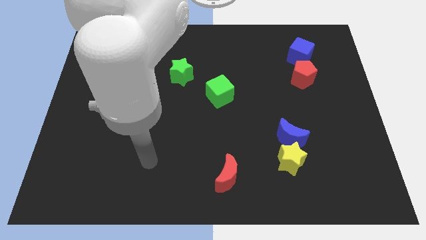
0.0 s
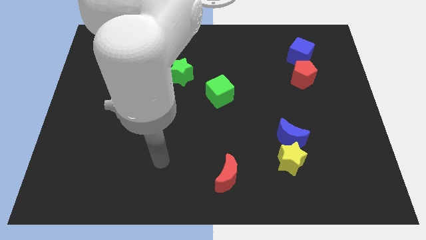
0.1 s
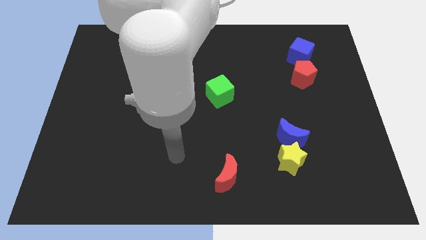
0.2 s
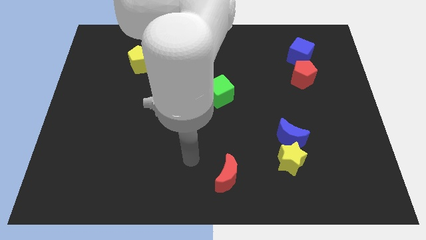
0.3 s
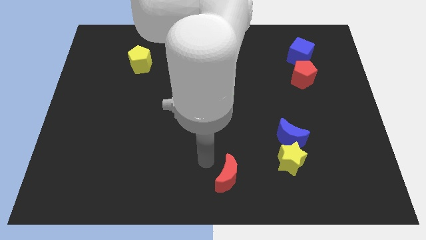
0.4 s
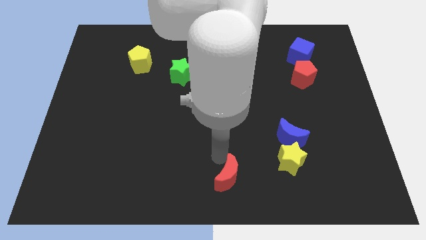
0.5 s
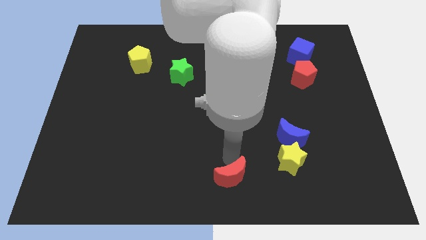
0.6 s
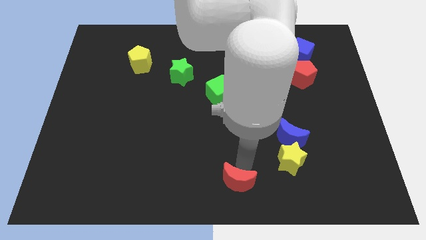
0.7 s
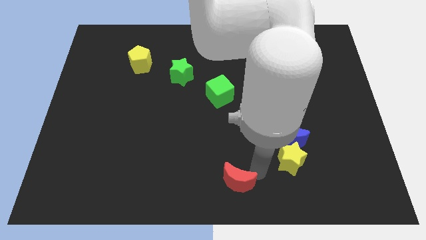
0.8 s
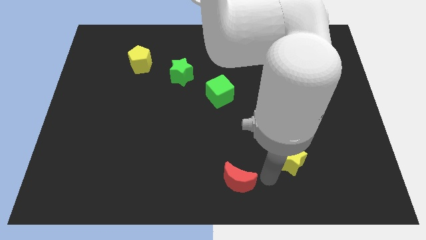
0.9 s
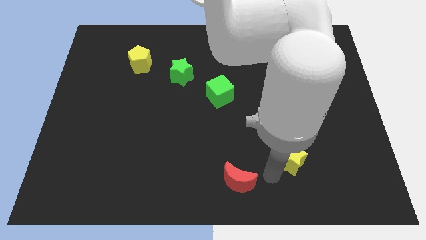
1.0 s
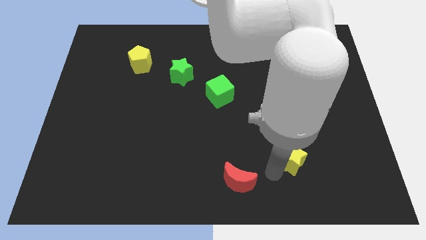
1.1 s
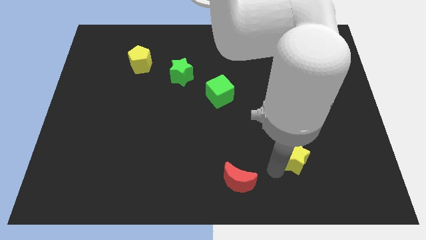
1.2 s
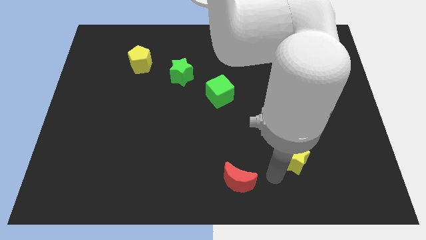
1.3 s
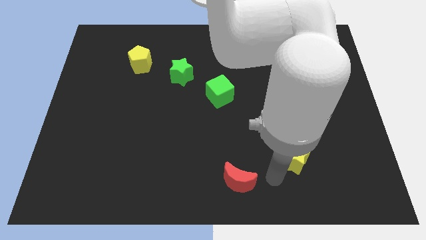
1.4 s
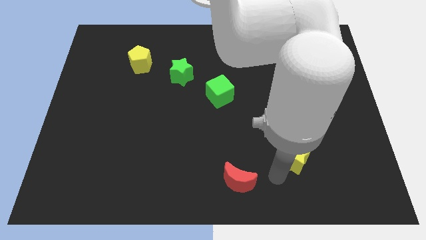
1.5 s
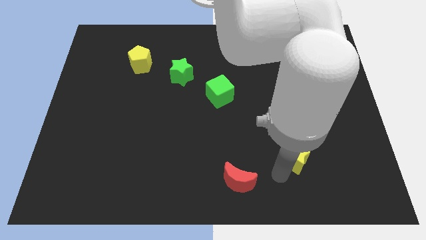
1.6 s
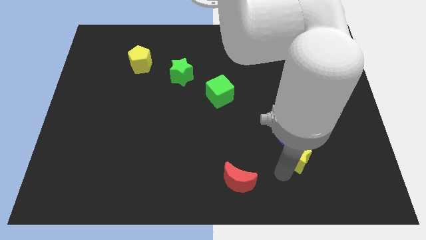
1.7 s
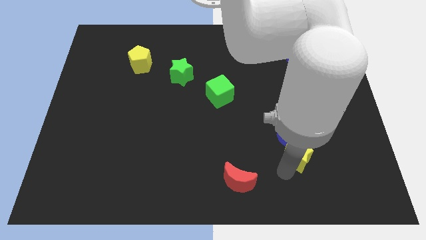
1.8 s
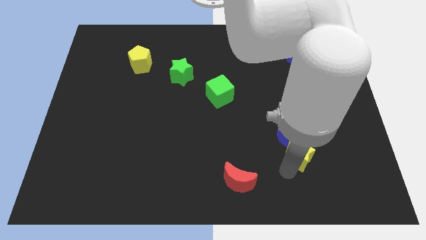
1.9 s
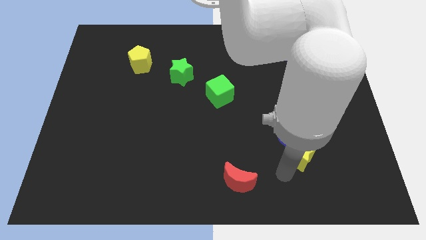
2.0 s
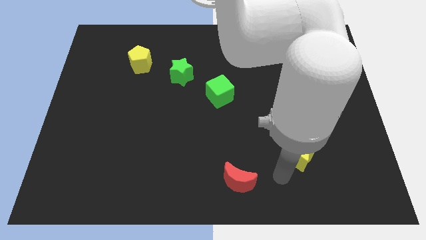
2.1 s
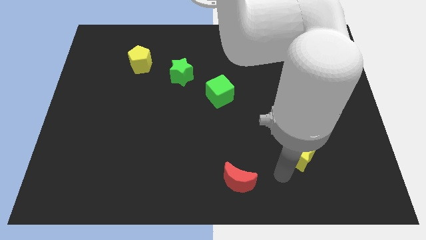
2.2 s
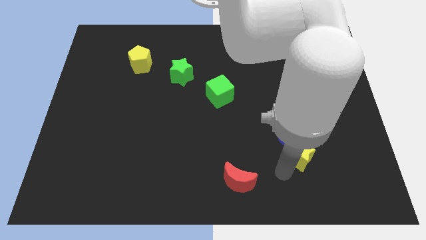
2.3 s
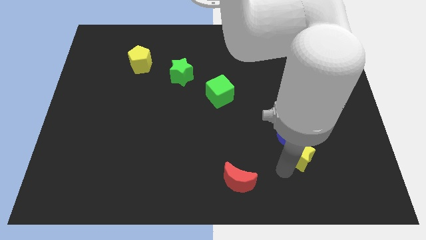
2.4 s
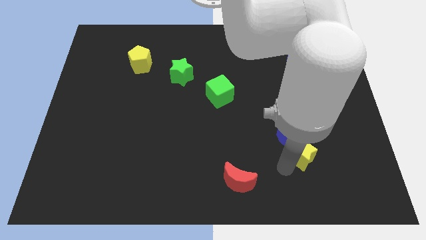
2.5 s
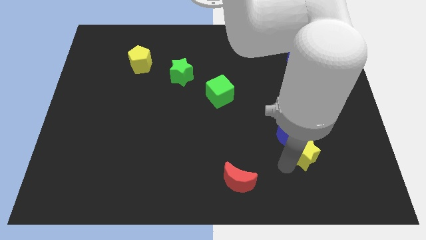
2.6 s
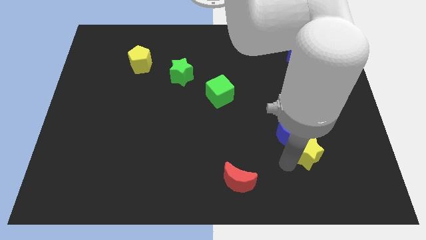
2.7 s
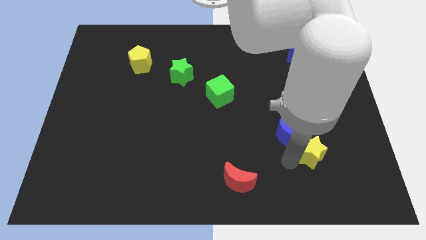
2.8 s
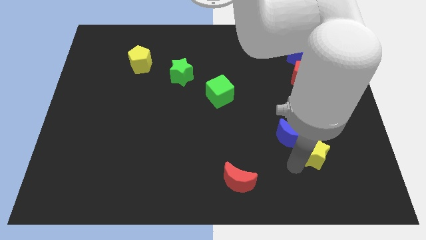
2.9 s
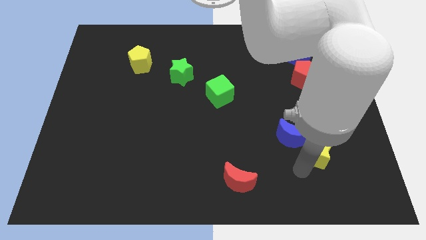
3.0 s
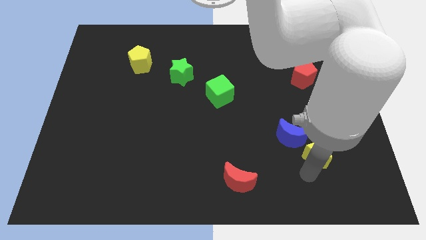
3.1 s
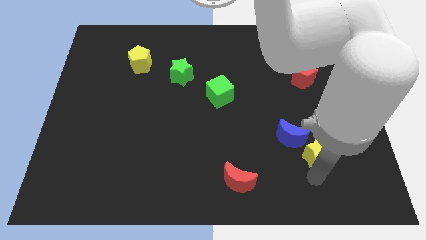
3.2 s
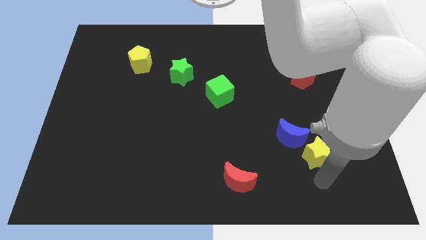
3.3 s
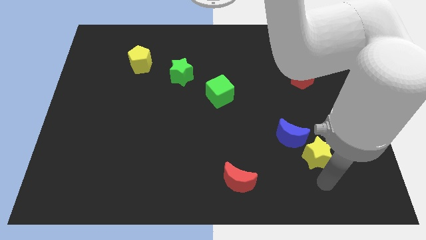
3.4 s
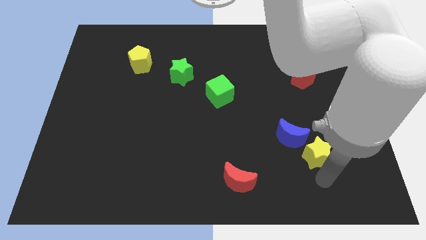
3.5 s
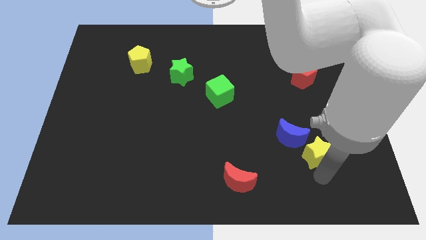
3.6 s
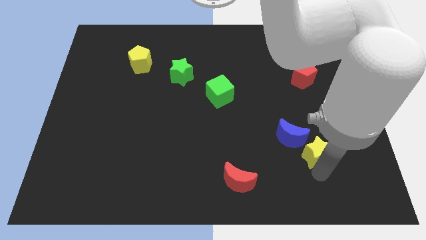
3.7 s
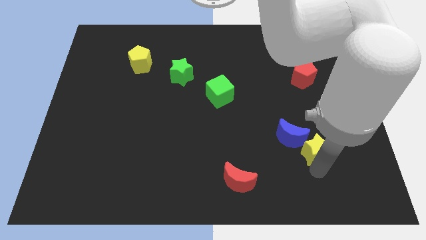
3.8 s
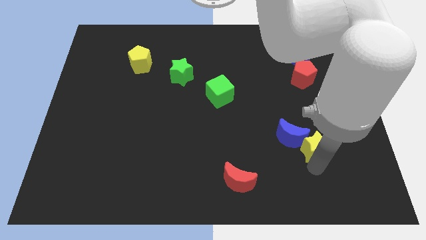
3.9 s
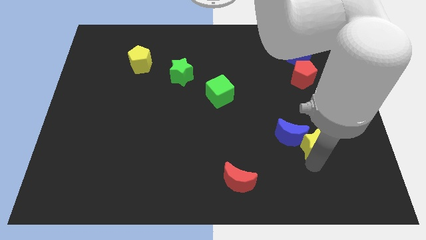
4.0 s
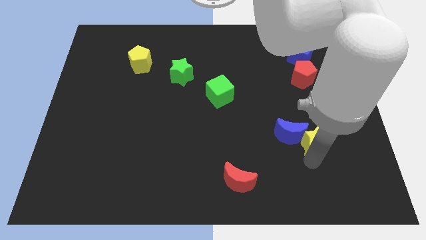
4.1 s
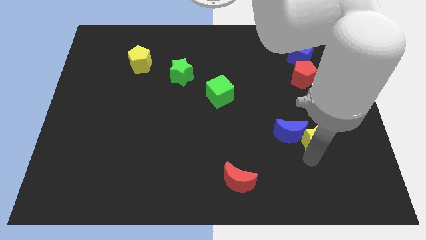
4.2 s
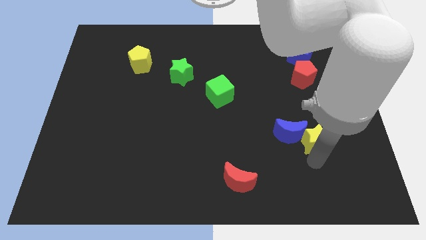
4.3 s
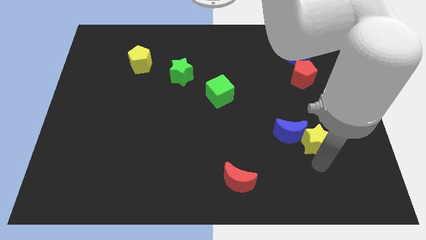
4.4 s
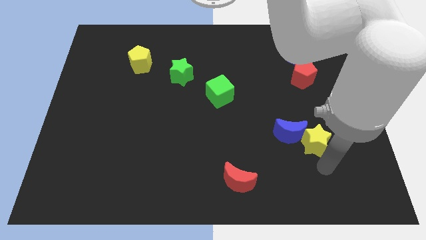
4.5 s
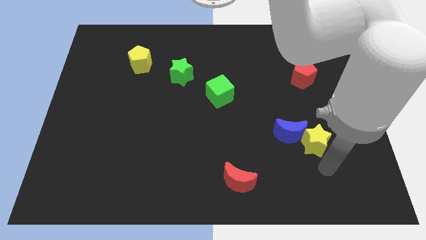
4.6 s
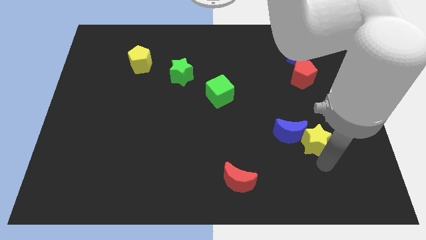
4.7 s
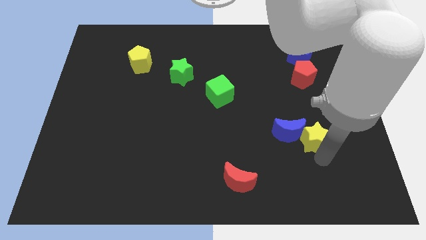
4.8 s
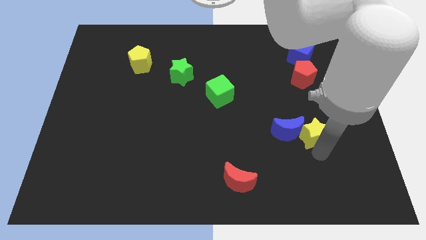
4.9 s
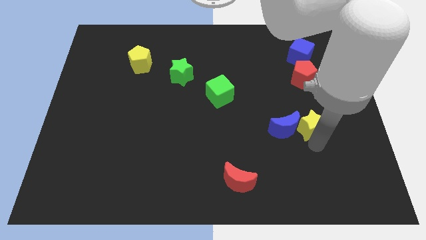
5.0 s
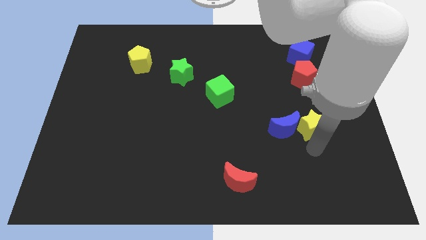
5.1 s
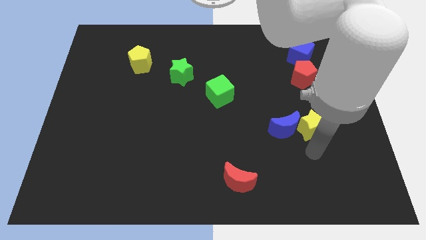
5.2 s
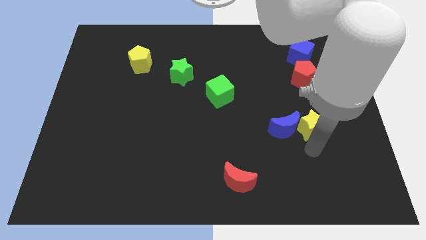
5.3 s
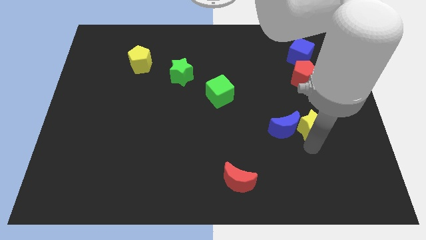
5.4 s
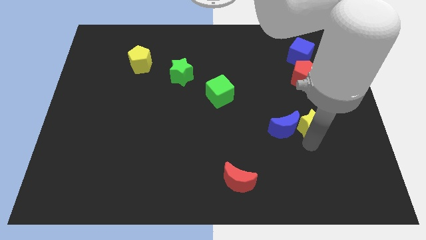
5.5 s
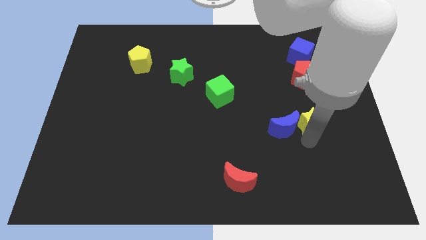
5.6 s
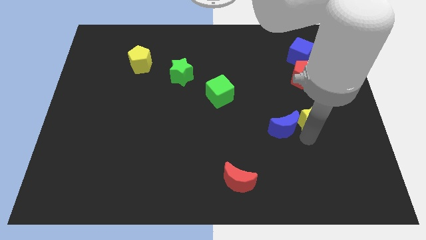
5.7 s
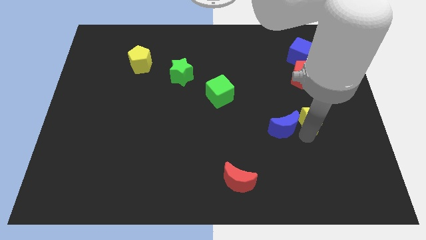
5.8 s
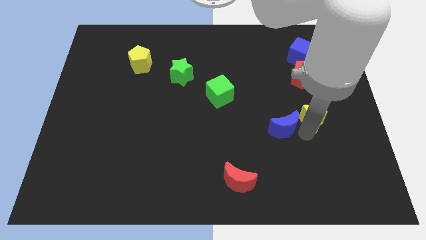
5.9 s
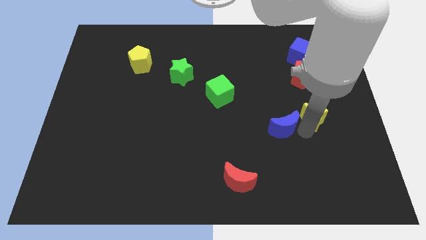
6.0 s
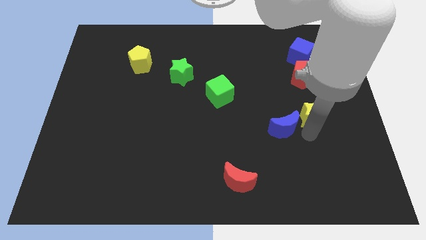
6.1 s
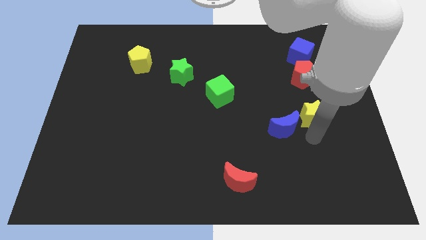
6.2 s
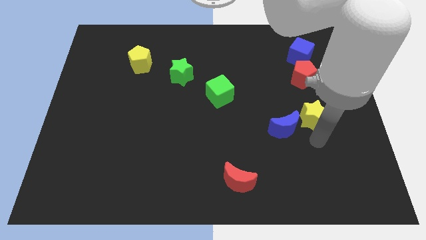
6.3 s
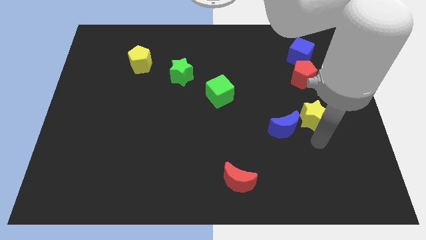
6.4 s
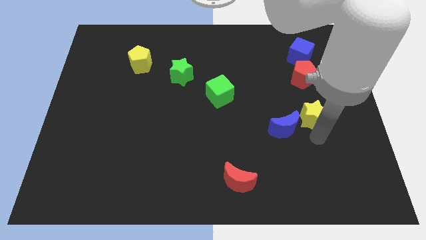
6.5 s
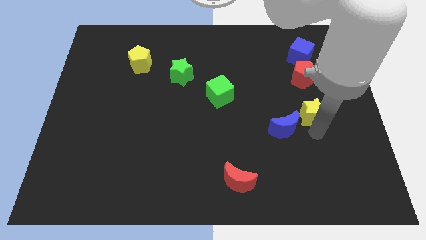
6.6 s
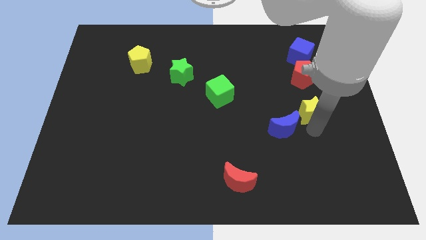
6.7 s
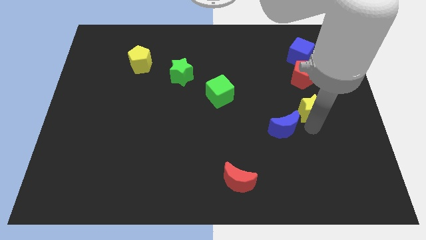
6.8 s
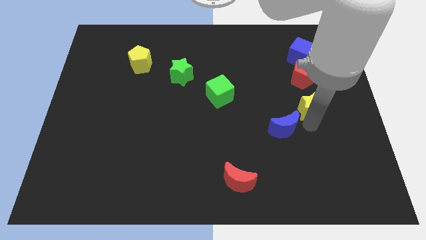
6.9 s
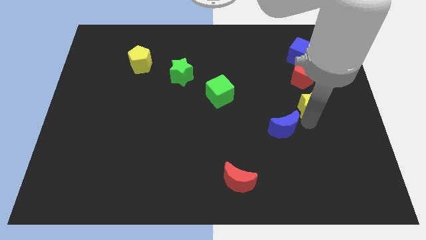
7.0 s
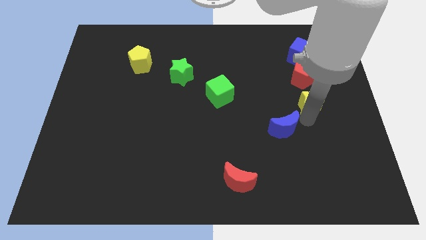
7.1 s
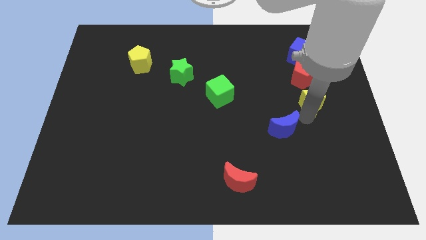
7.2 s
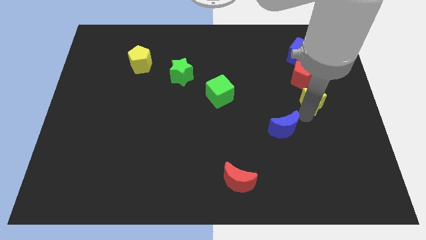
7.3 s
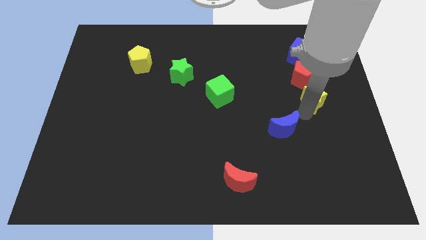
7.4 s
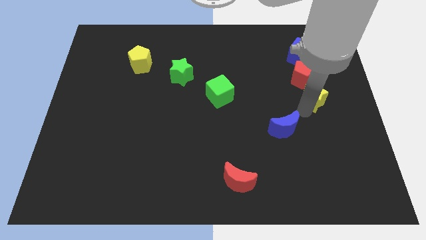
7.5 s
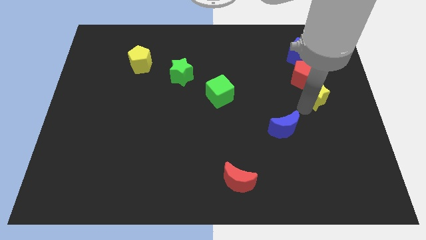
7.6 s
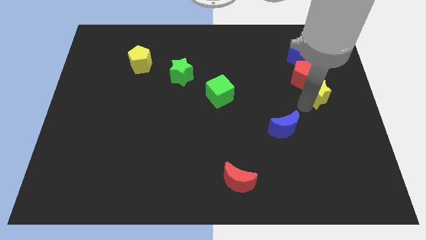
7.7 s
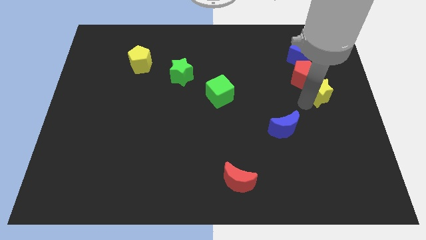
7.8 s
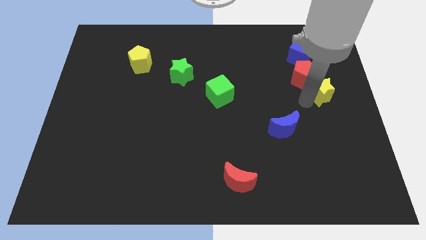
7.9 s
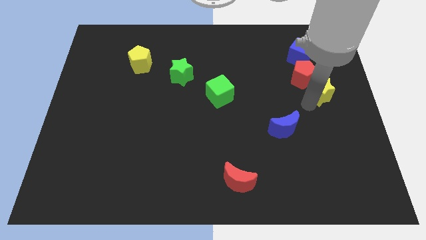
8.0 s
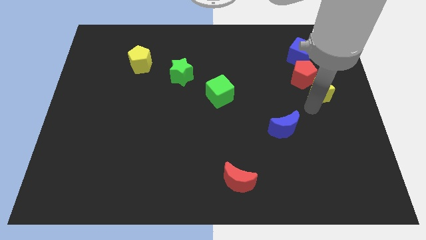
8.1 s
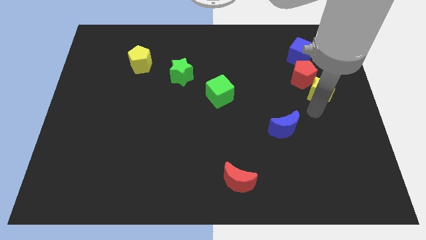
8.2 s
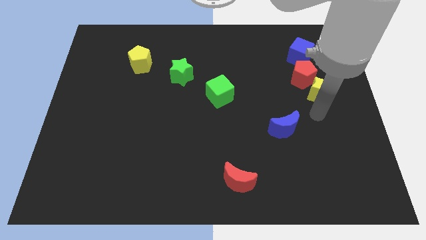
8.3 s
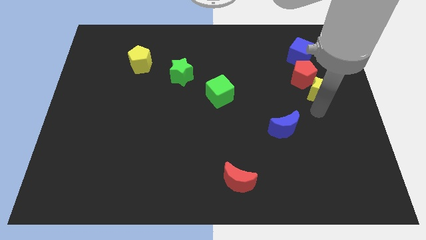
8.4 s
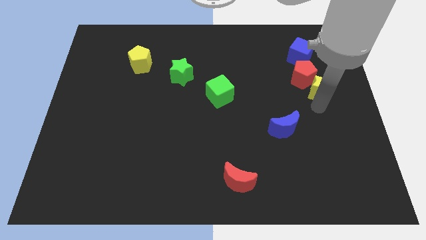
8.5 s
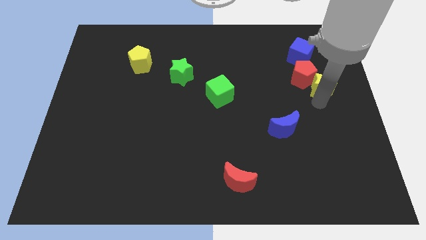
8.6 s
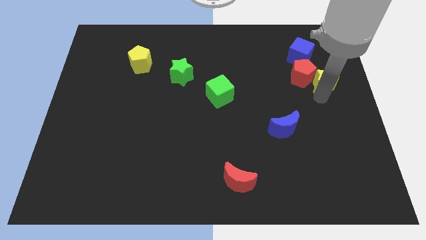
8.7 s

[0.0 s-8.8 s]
push the yellow star to the bottom right of the blue cube
